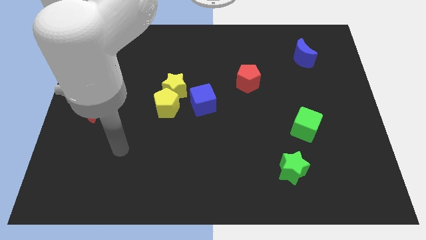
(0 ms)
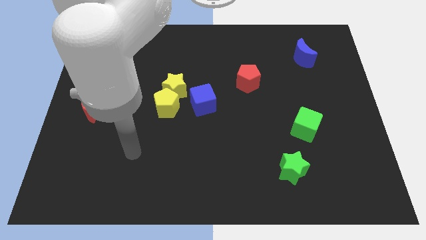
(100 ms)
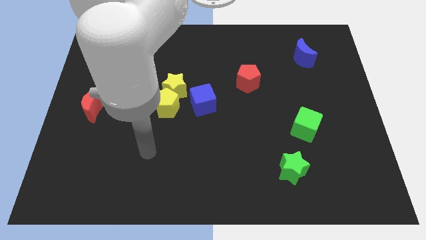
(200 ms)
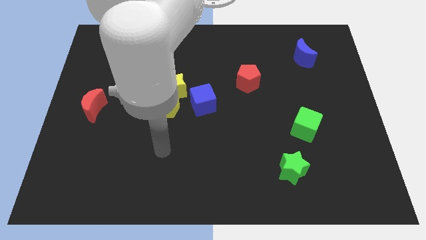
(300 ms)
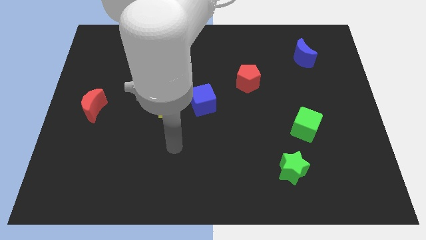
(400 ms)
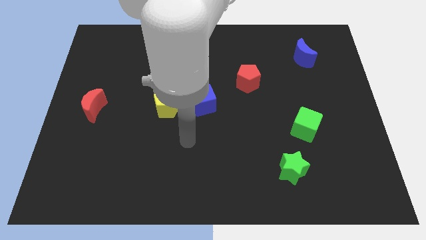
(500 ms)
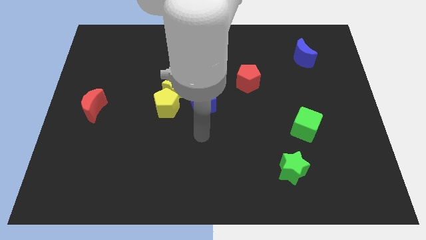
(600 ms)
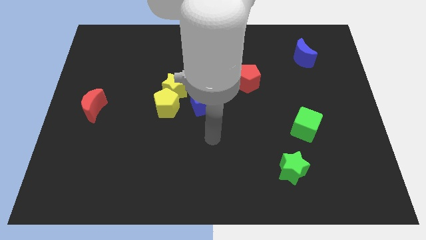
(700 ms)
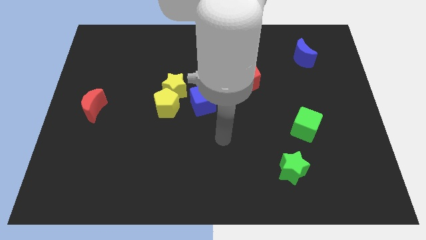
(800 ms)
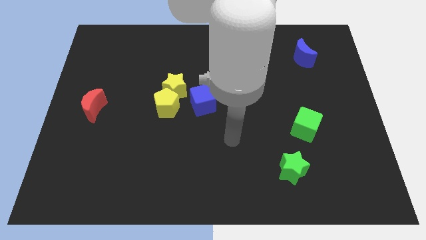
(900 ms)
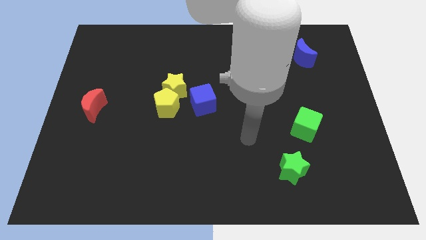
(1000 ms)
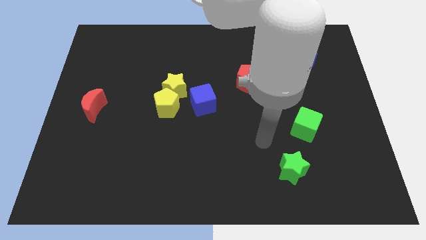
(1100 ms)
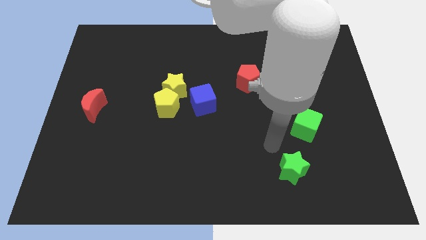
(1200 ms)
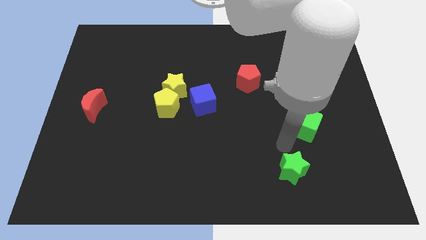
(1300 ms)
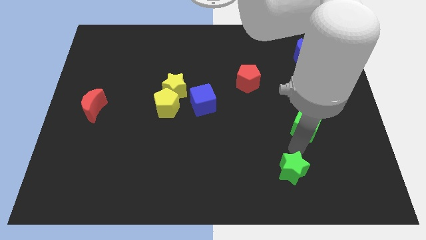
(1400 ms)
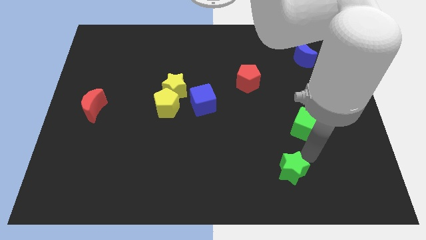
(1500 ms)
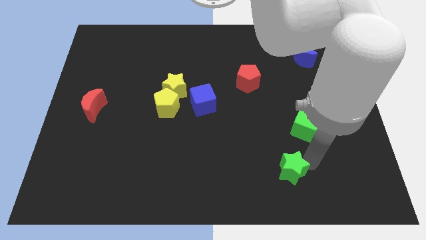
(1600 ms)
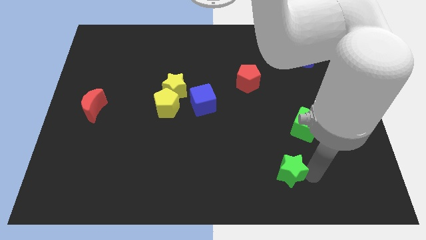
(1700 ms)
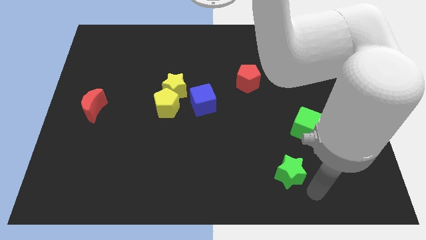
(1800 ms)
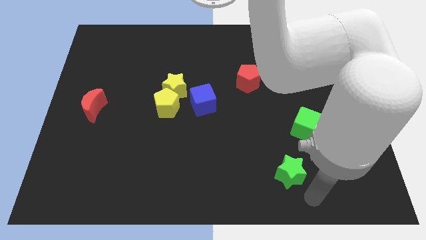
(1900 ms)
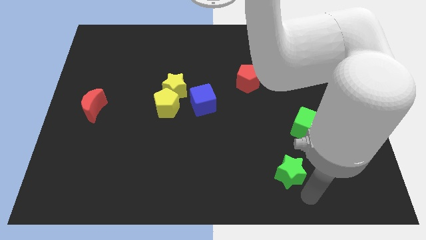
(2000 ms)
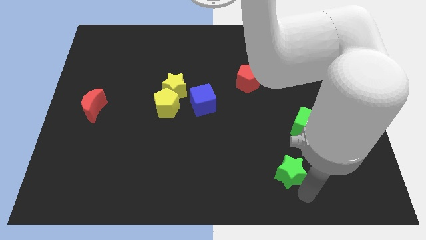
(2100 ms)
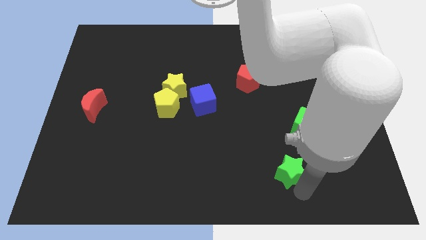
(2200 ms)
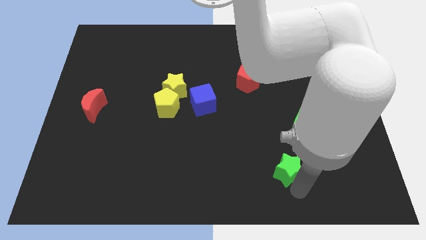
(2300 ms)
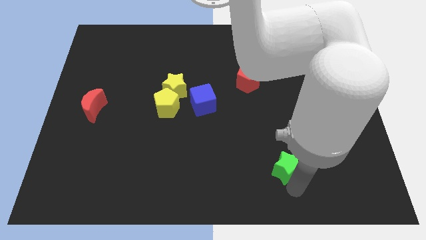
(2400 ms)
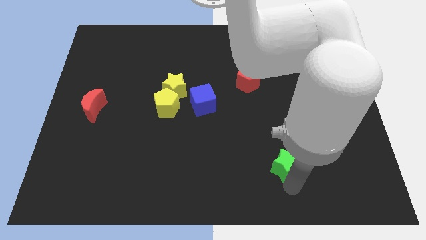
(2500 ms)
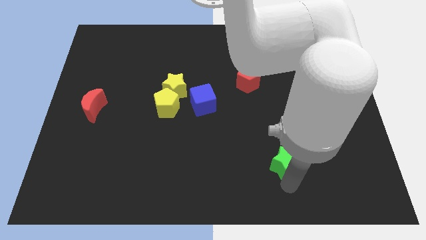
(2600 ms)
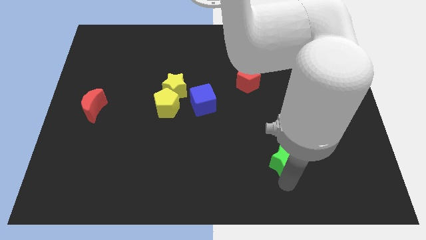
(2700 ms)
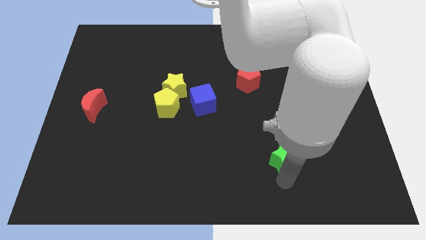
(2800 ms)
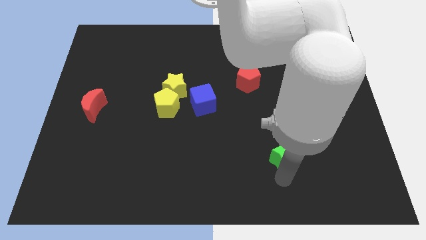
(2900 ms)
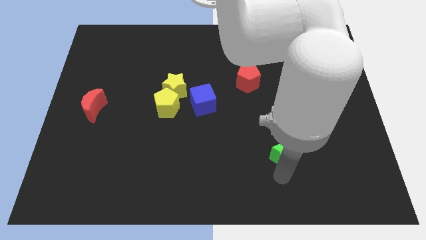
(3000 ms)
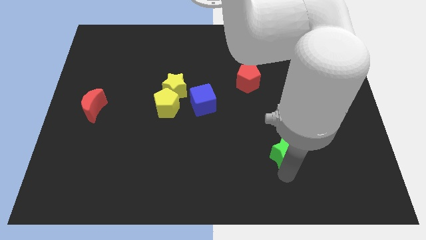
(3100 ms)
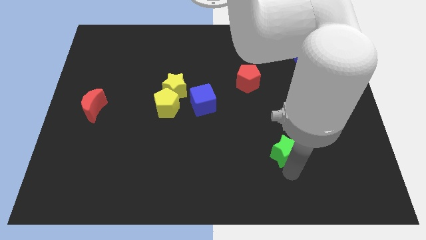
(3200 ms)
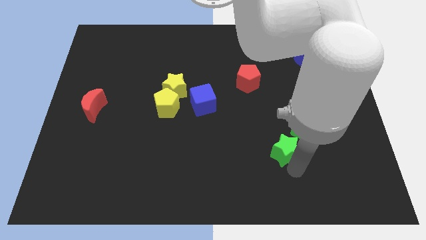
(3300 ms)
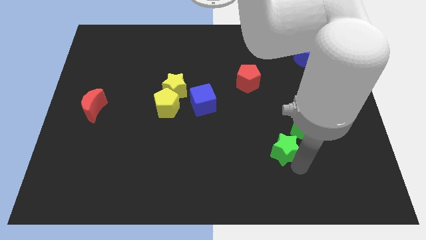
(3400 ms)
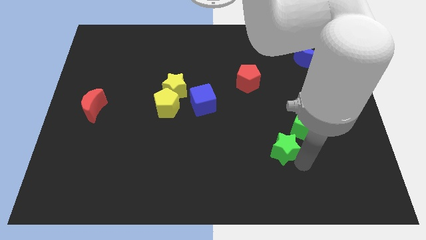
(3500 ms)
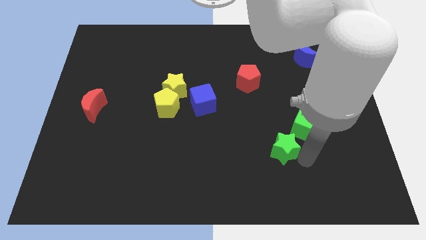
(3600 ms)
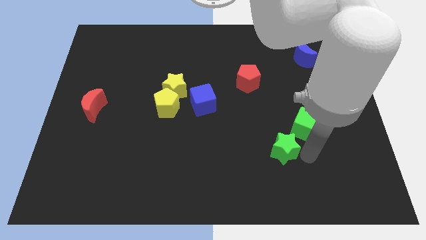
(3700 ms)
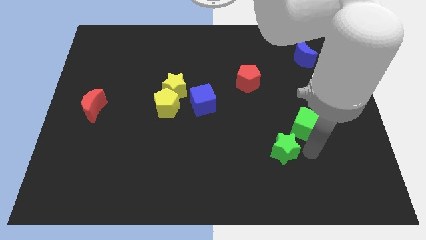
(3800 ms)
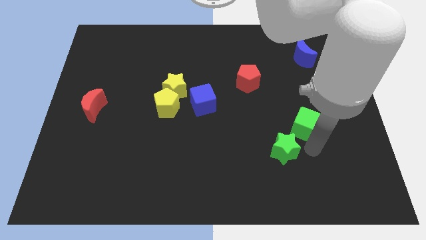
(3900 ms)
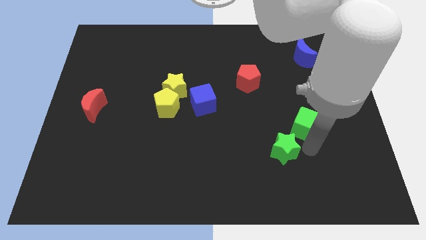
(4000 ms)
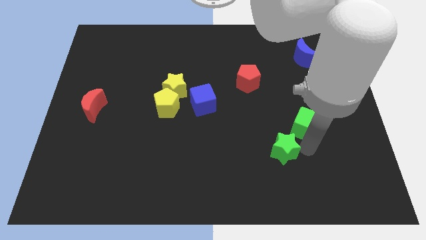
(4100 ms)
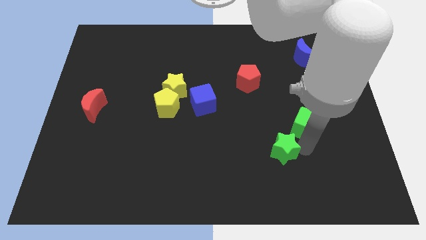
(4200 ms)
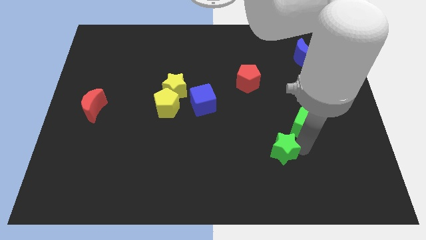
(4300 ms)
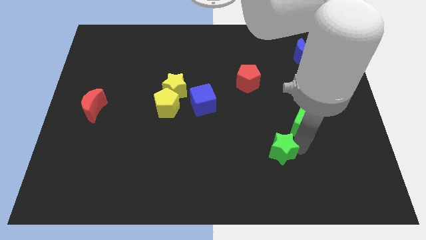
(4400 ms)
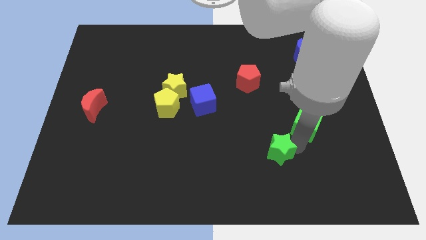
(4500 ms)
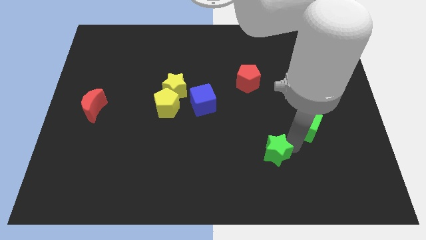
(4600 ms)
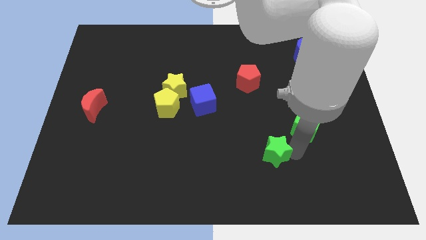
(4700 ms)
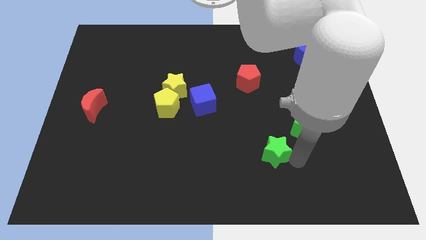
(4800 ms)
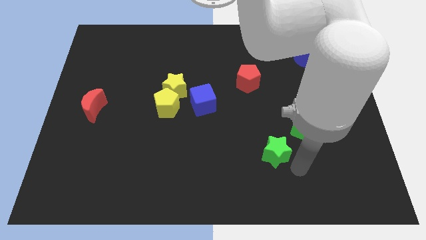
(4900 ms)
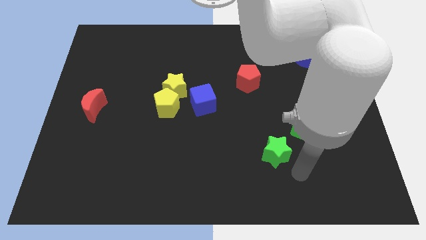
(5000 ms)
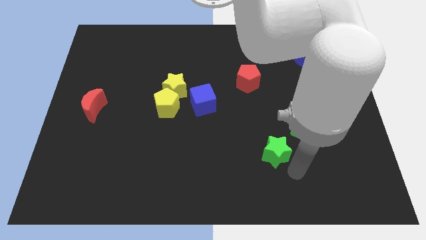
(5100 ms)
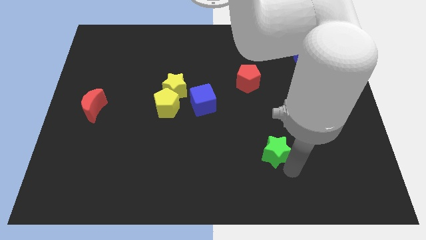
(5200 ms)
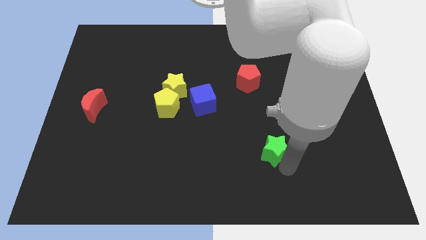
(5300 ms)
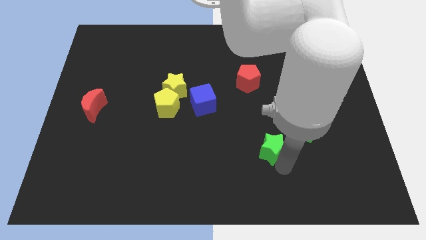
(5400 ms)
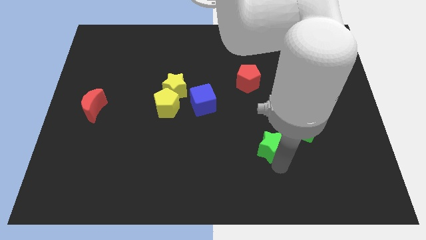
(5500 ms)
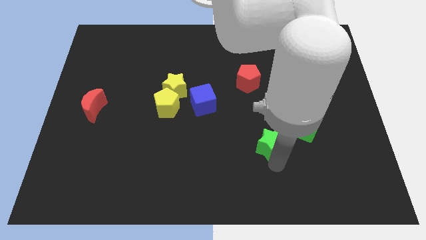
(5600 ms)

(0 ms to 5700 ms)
slightly push the green star upwards and to the left diagonally

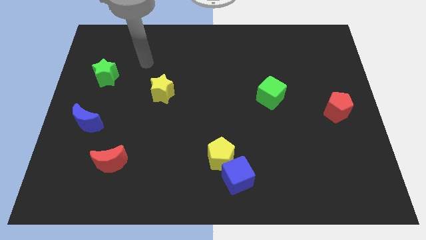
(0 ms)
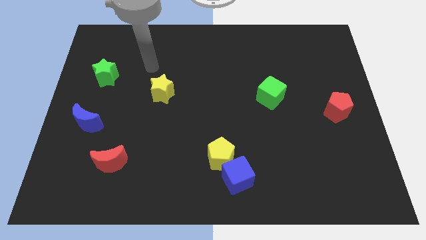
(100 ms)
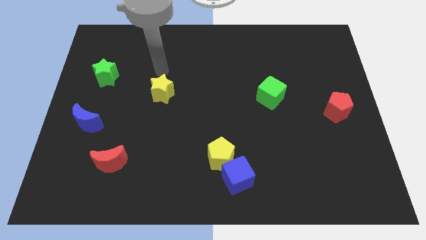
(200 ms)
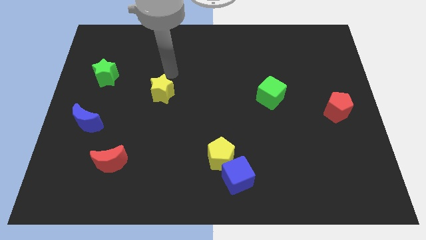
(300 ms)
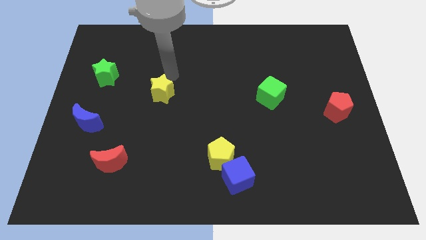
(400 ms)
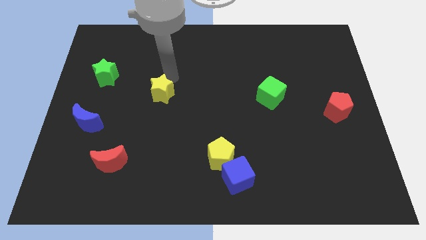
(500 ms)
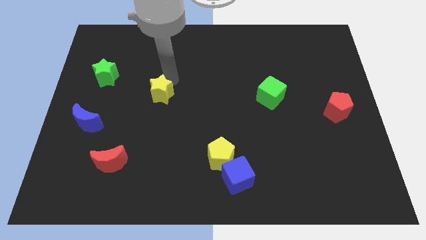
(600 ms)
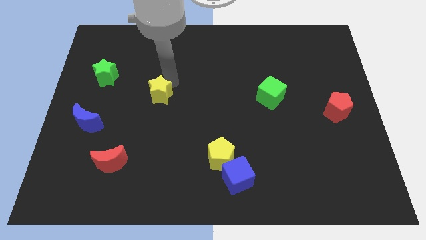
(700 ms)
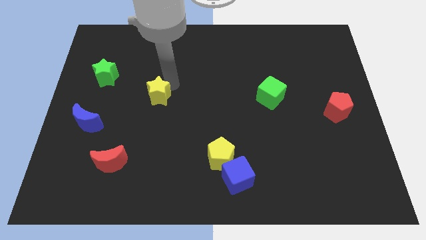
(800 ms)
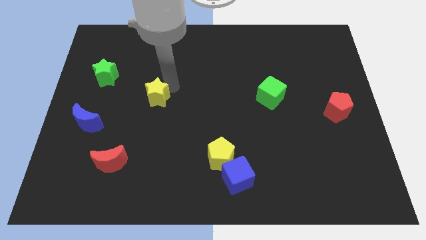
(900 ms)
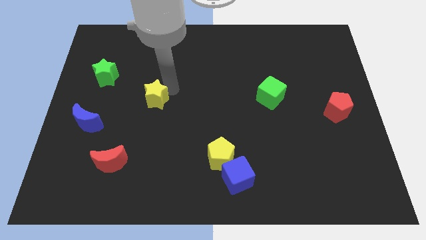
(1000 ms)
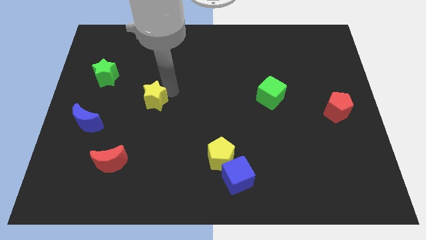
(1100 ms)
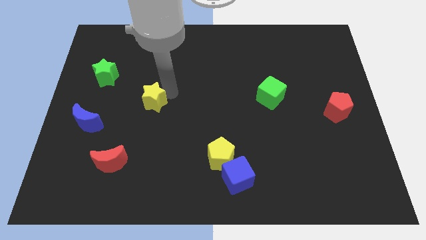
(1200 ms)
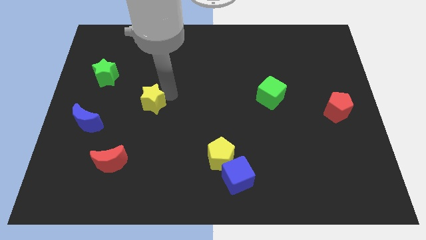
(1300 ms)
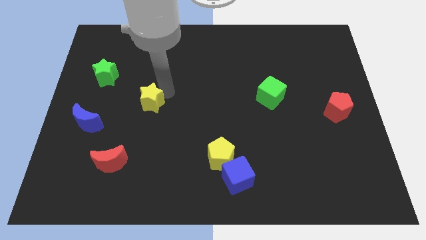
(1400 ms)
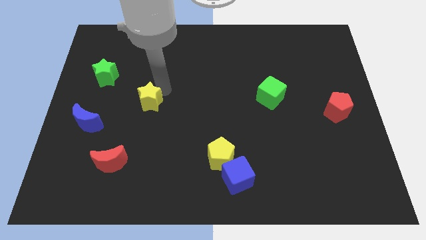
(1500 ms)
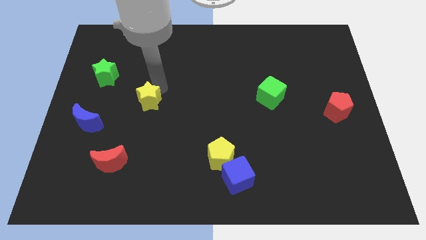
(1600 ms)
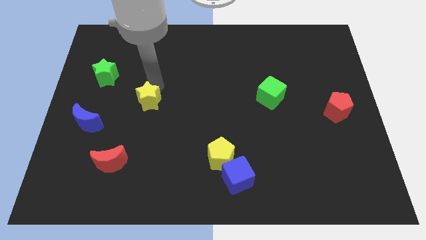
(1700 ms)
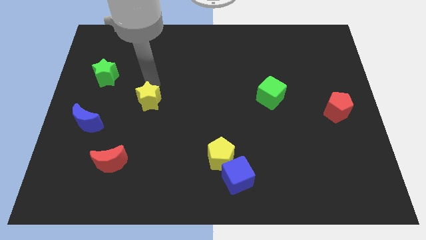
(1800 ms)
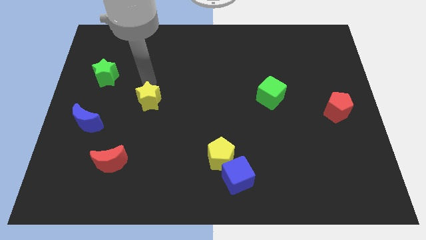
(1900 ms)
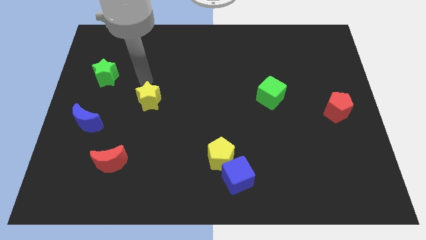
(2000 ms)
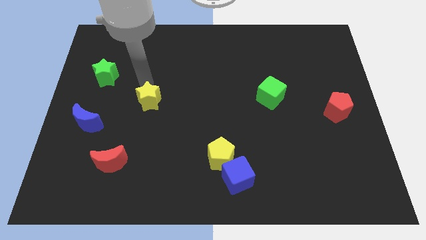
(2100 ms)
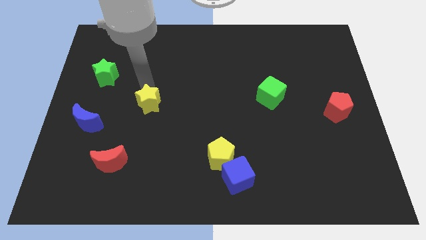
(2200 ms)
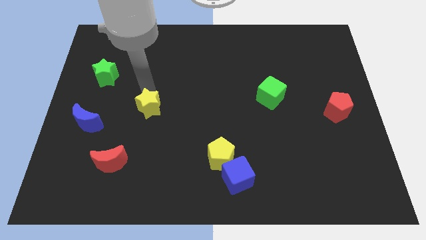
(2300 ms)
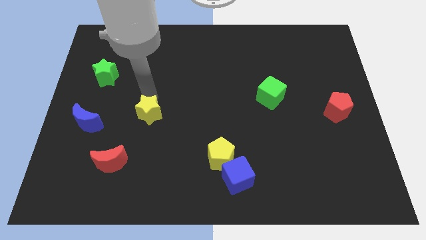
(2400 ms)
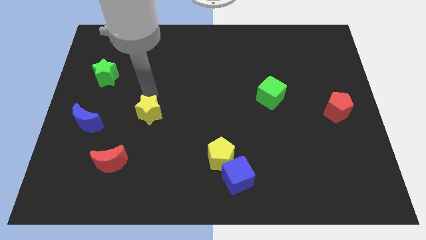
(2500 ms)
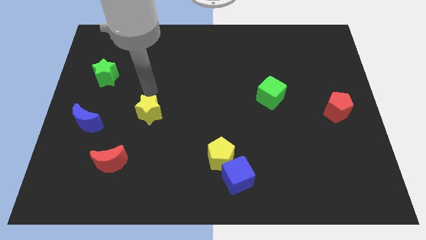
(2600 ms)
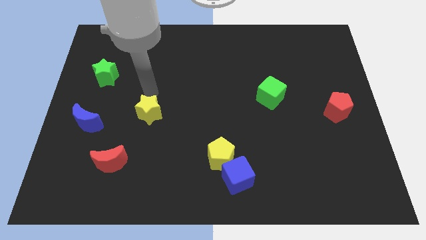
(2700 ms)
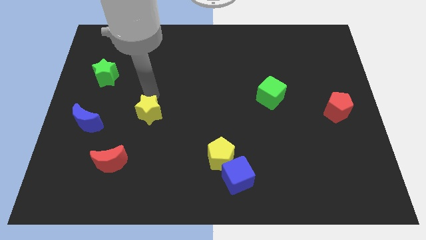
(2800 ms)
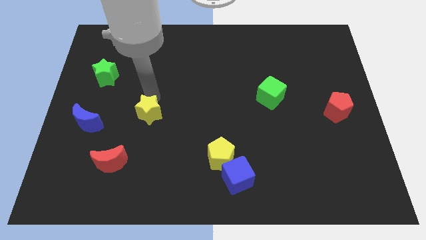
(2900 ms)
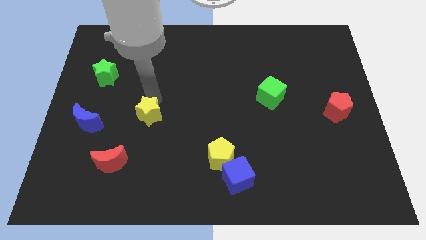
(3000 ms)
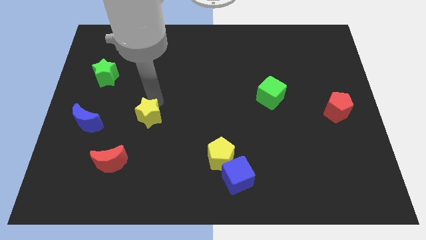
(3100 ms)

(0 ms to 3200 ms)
slightly move the yellow star downwards
